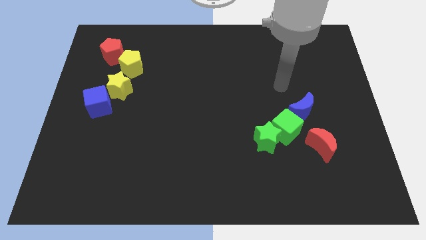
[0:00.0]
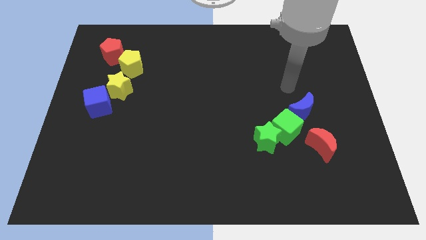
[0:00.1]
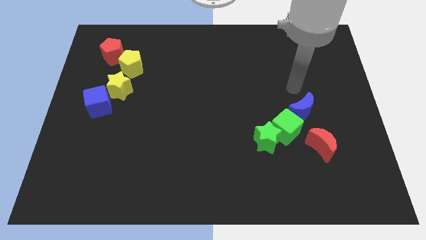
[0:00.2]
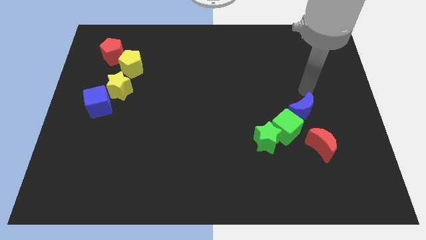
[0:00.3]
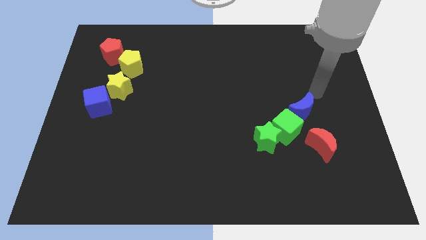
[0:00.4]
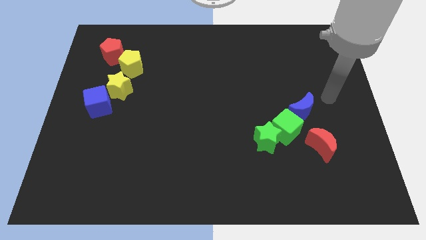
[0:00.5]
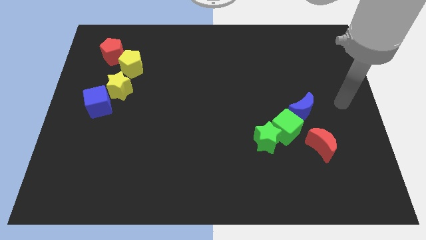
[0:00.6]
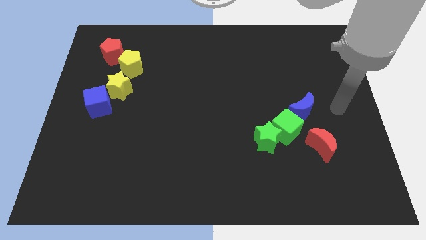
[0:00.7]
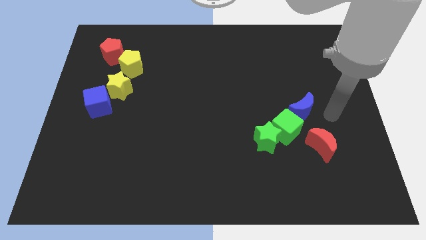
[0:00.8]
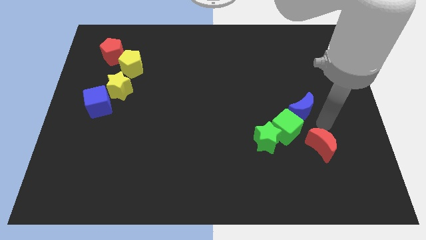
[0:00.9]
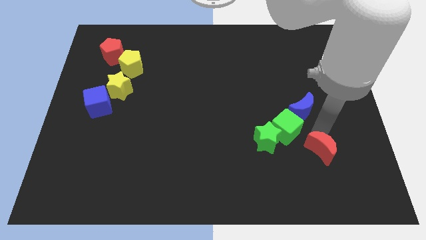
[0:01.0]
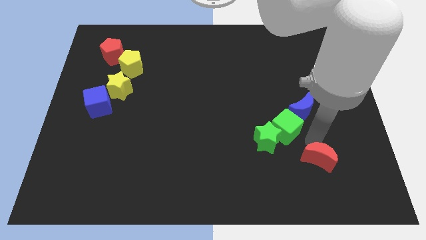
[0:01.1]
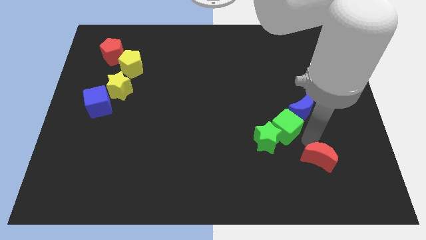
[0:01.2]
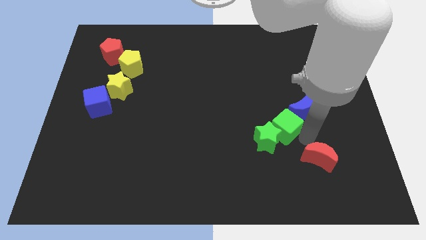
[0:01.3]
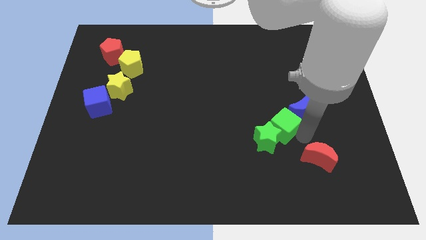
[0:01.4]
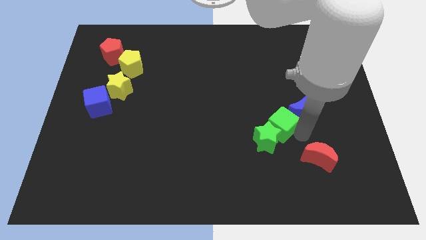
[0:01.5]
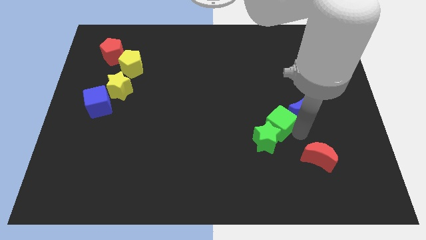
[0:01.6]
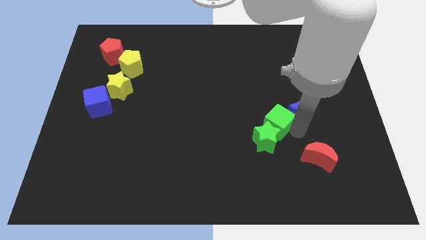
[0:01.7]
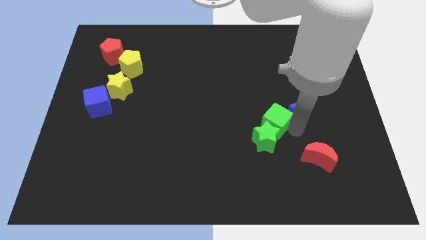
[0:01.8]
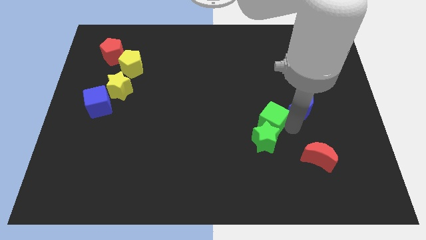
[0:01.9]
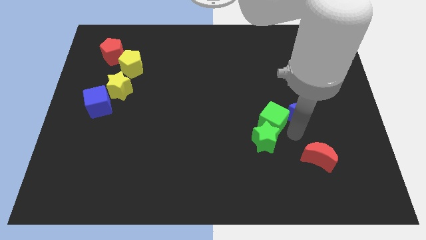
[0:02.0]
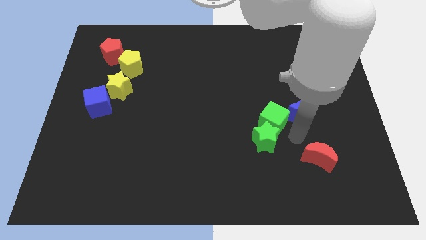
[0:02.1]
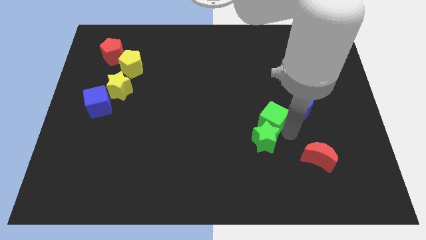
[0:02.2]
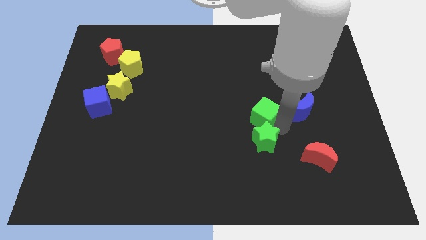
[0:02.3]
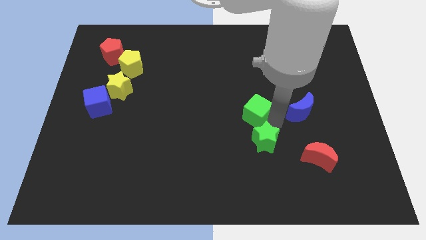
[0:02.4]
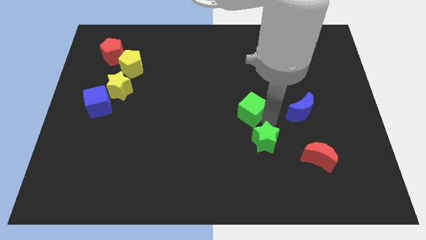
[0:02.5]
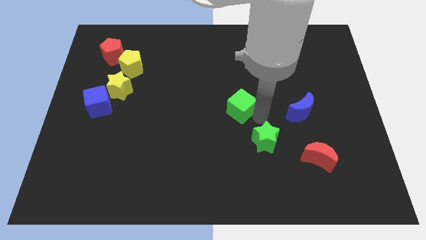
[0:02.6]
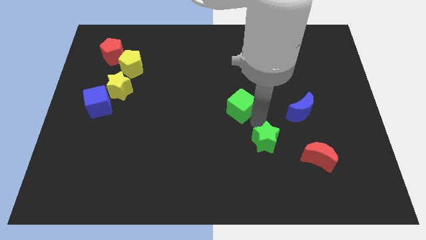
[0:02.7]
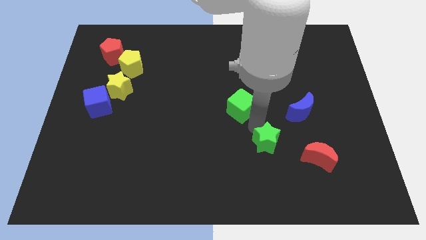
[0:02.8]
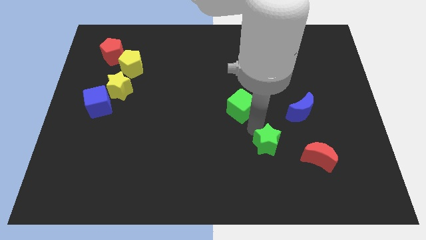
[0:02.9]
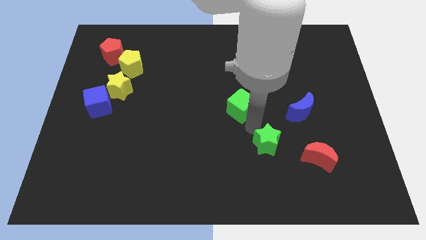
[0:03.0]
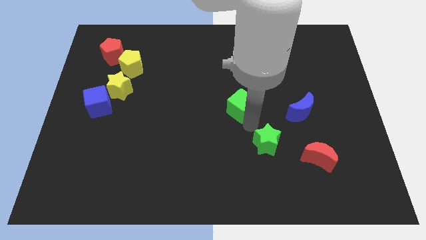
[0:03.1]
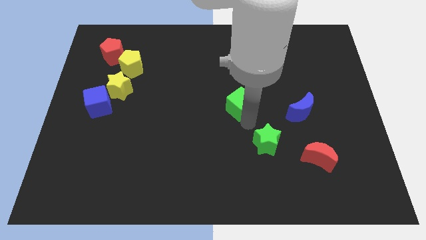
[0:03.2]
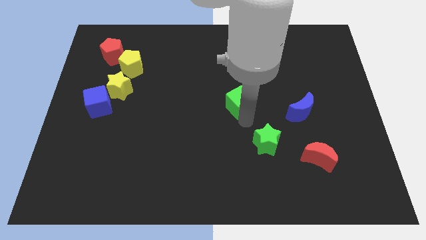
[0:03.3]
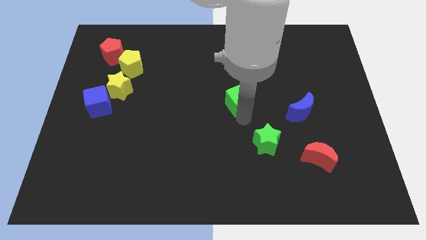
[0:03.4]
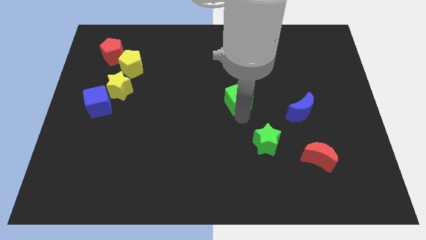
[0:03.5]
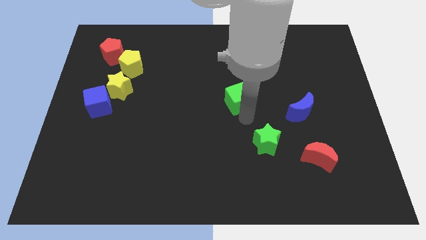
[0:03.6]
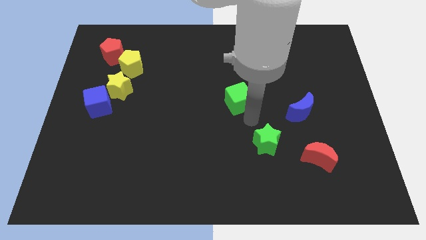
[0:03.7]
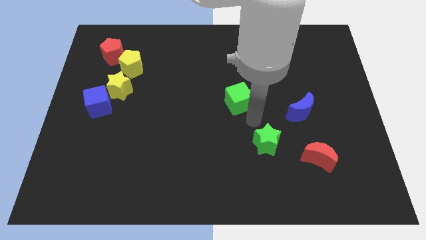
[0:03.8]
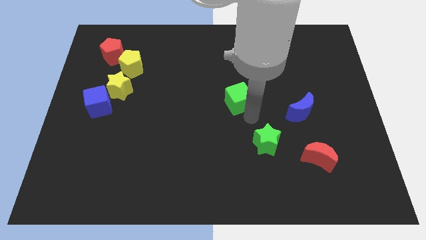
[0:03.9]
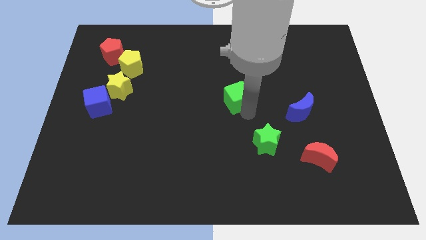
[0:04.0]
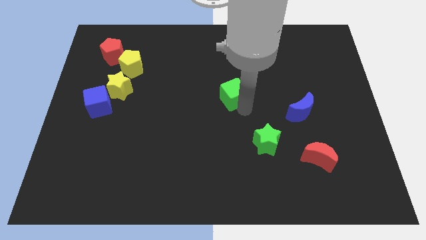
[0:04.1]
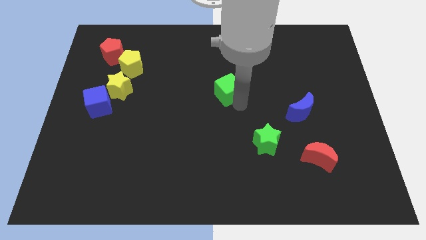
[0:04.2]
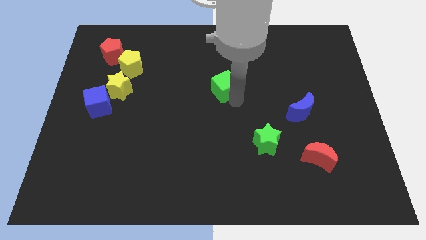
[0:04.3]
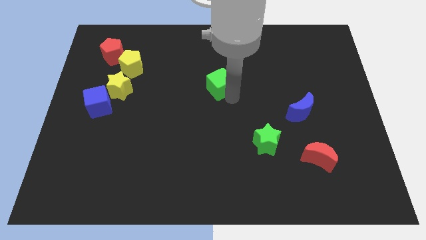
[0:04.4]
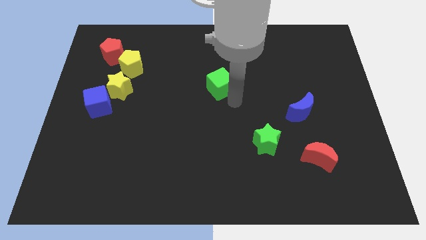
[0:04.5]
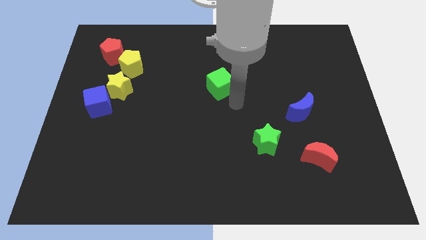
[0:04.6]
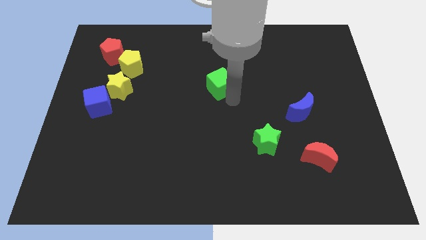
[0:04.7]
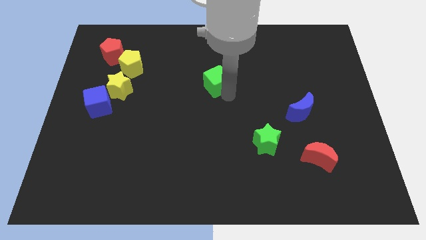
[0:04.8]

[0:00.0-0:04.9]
move the green cube up and then left

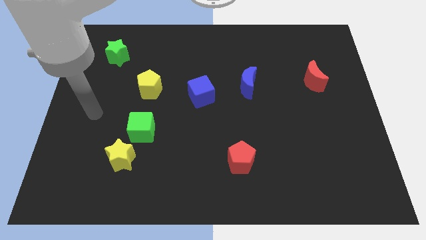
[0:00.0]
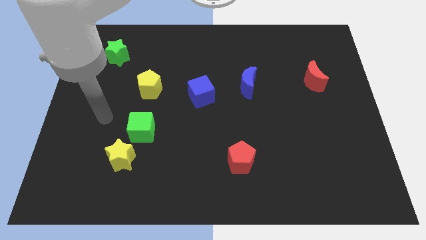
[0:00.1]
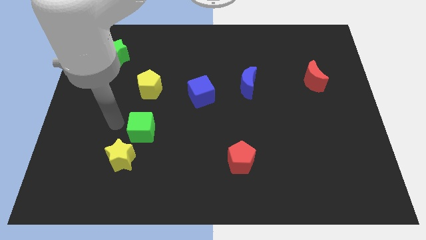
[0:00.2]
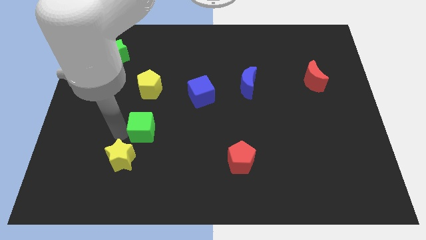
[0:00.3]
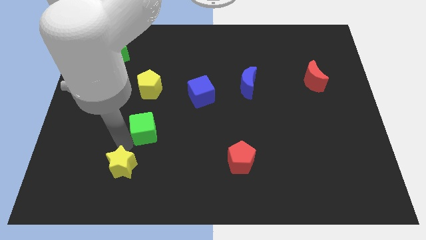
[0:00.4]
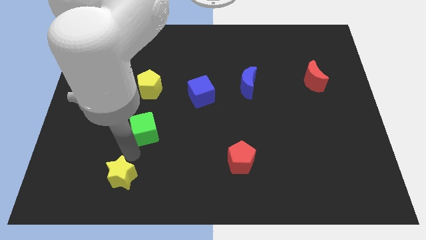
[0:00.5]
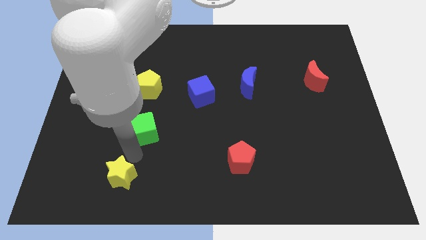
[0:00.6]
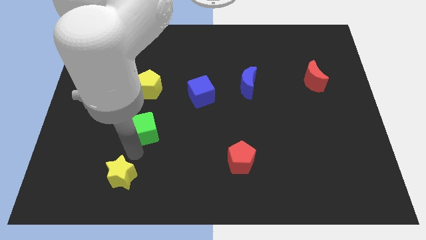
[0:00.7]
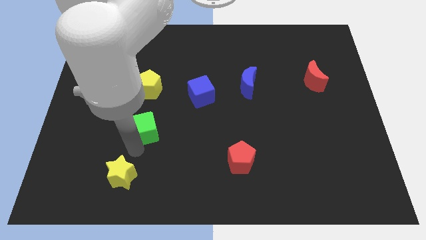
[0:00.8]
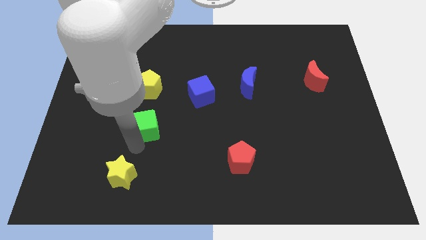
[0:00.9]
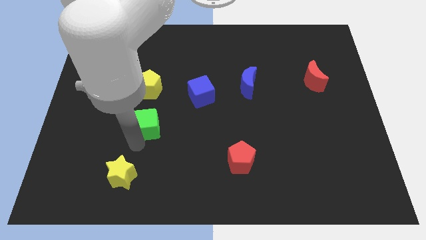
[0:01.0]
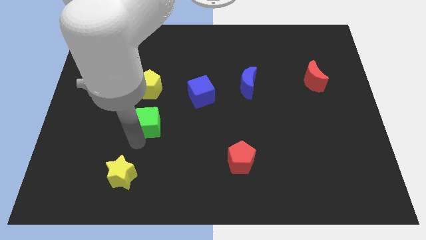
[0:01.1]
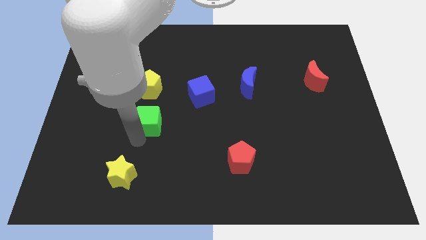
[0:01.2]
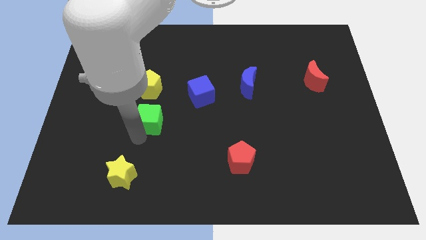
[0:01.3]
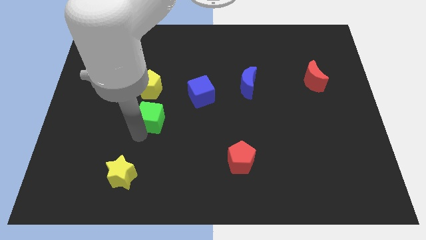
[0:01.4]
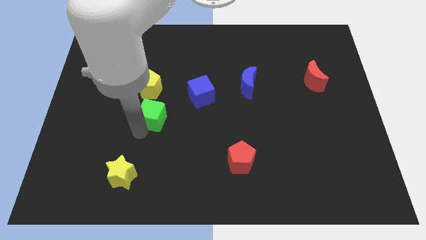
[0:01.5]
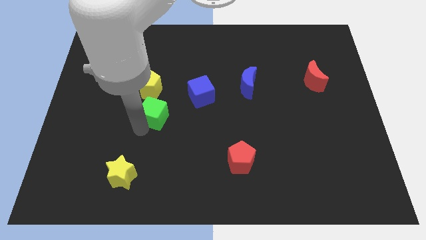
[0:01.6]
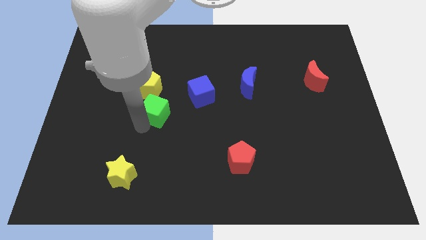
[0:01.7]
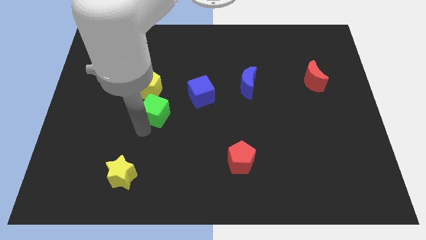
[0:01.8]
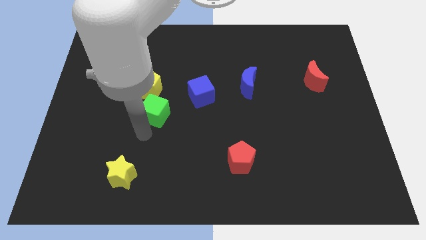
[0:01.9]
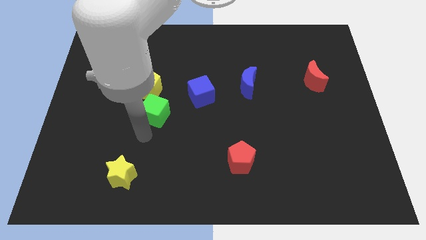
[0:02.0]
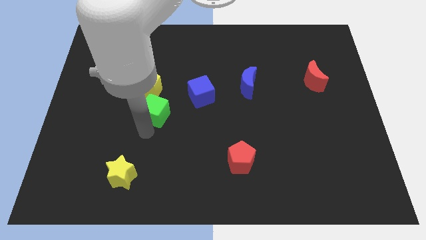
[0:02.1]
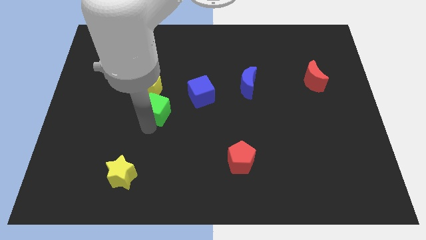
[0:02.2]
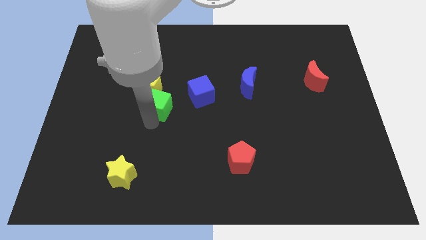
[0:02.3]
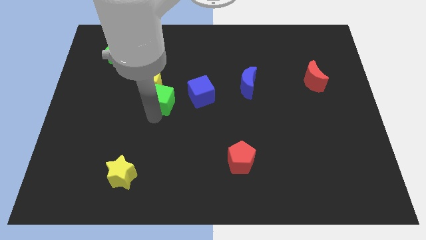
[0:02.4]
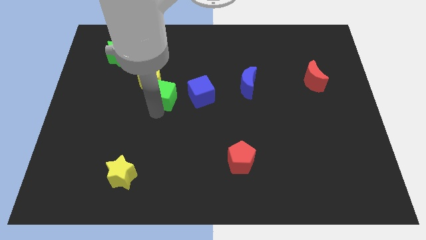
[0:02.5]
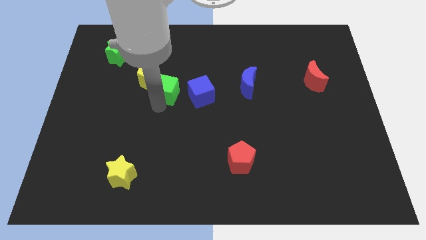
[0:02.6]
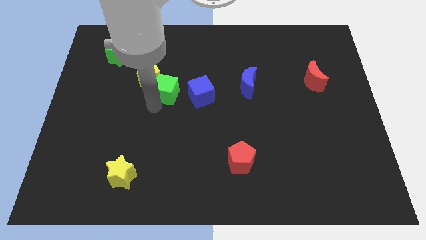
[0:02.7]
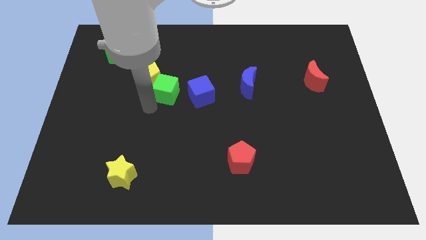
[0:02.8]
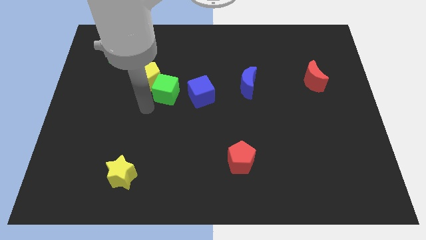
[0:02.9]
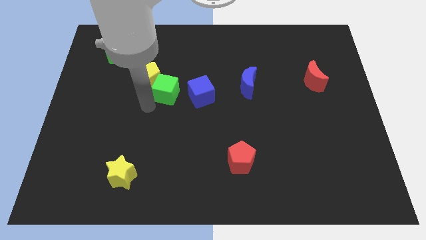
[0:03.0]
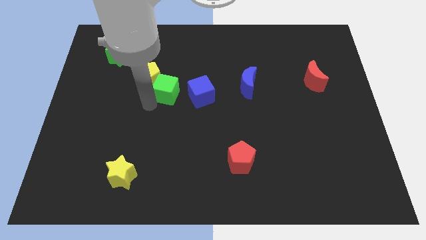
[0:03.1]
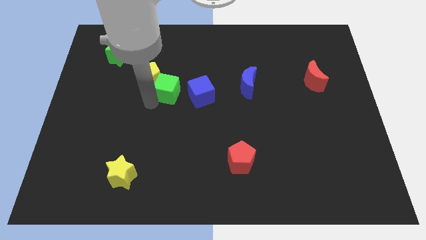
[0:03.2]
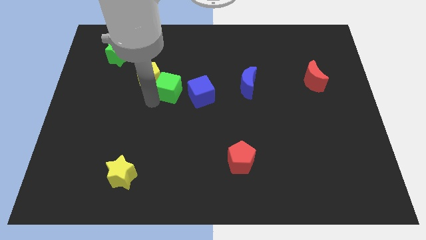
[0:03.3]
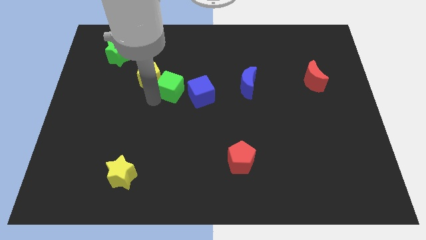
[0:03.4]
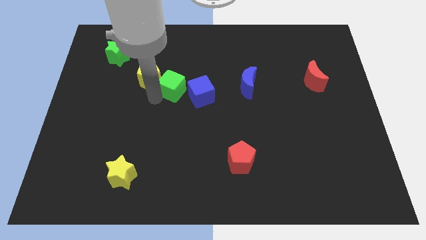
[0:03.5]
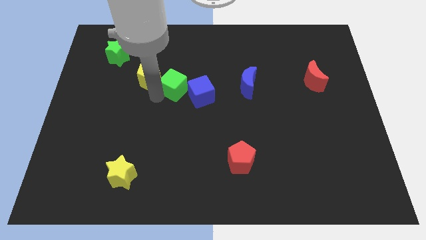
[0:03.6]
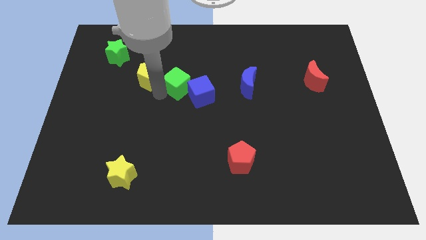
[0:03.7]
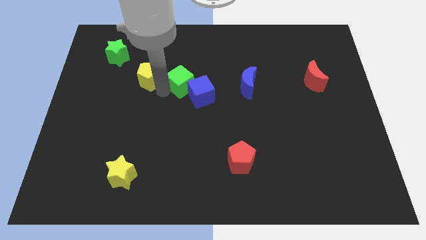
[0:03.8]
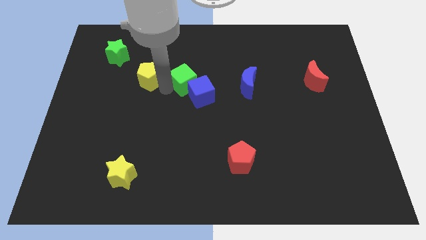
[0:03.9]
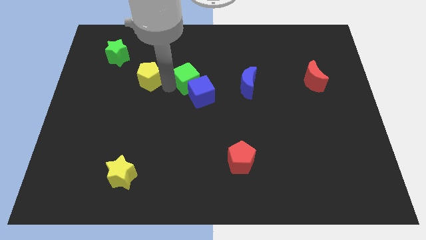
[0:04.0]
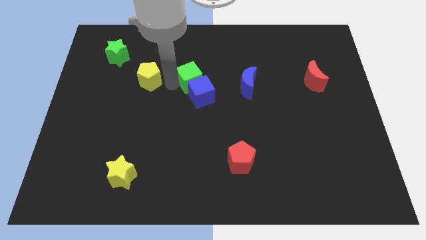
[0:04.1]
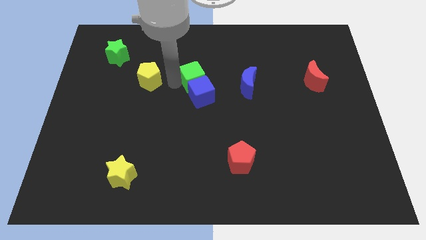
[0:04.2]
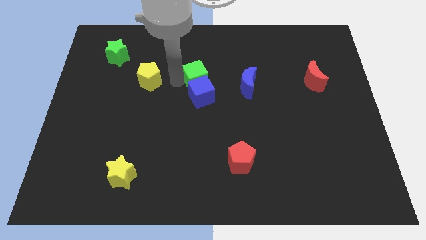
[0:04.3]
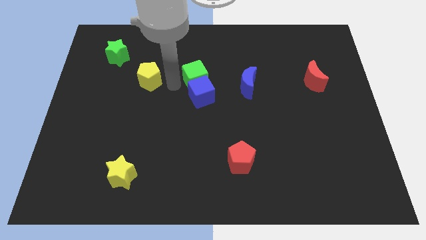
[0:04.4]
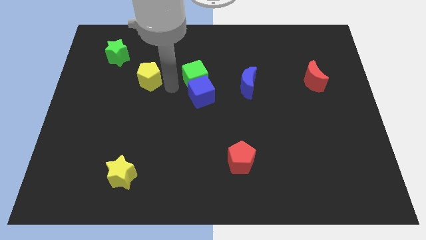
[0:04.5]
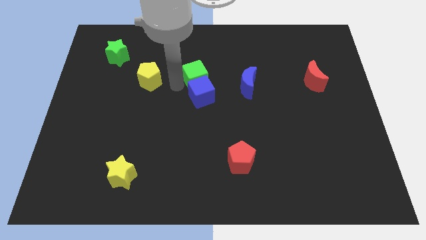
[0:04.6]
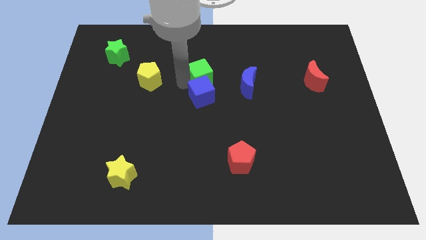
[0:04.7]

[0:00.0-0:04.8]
slide the green cube upwards and right
